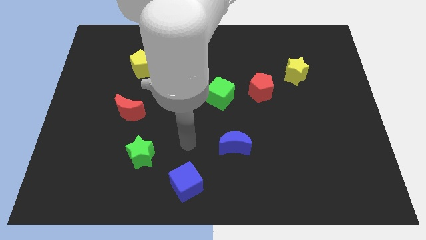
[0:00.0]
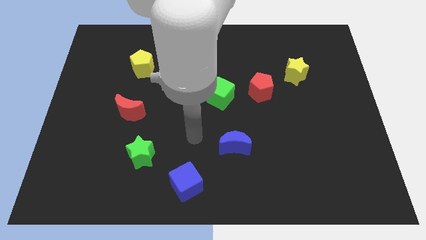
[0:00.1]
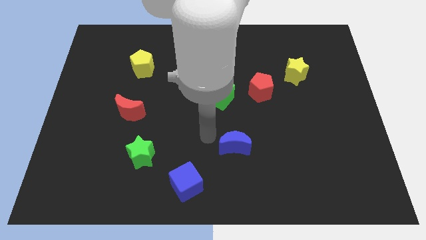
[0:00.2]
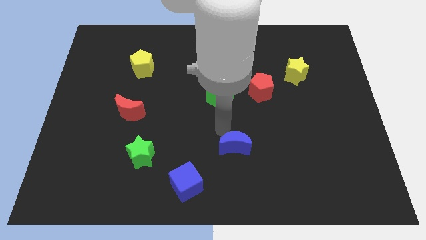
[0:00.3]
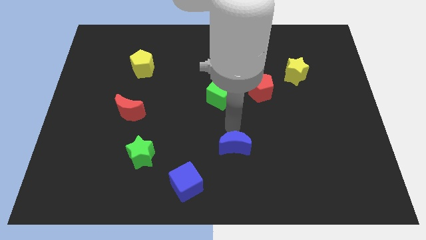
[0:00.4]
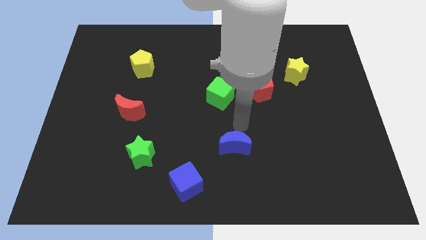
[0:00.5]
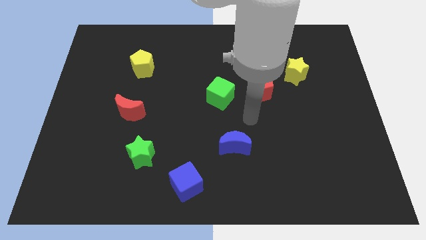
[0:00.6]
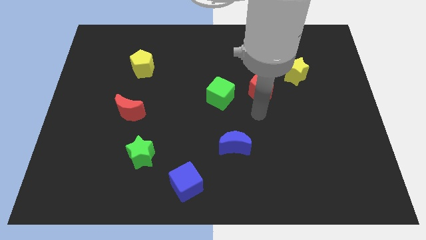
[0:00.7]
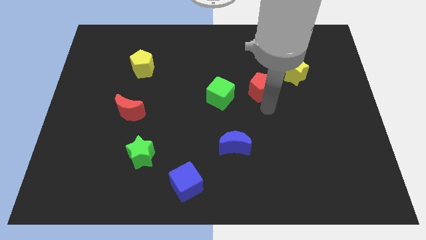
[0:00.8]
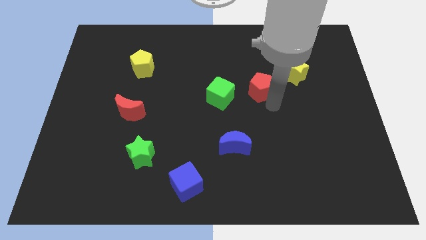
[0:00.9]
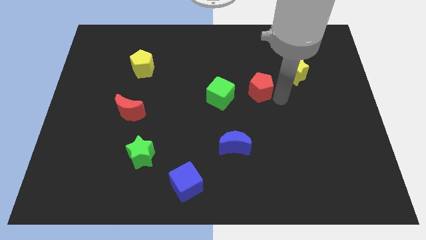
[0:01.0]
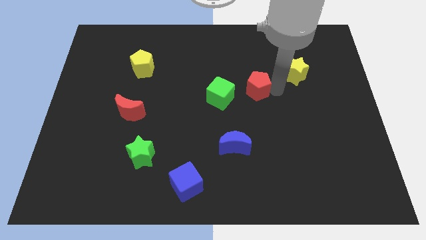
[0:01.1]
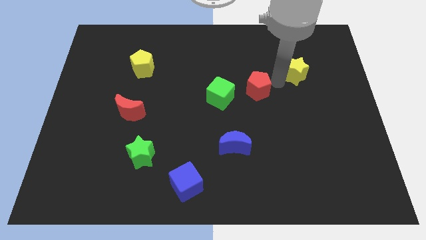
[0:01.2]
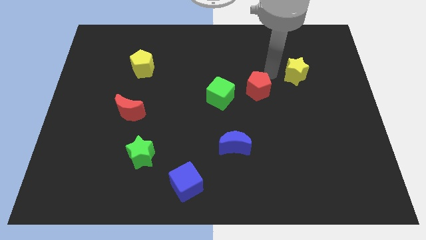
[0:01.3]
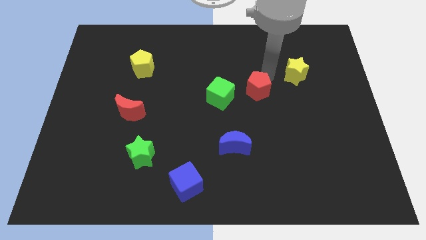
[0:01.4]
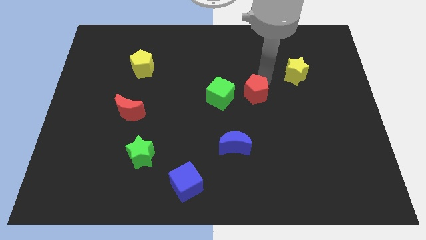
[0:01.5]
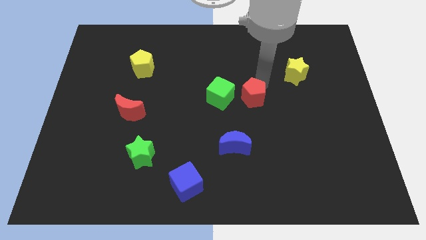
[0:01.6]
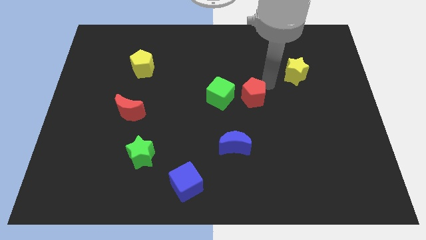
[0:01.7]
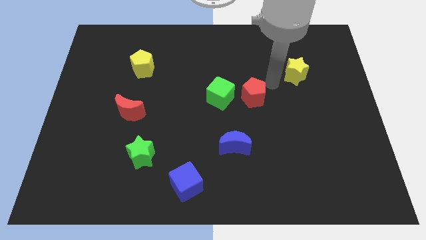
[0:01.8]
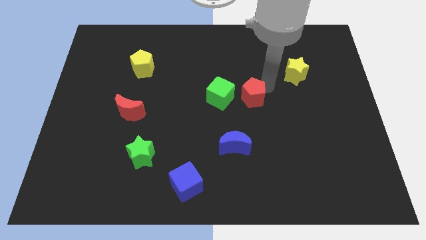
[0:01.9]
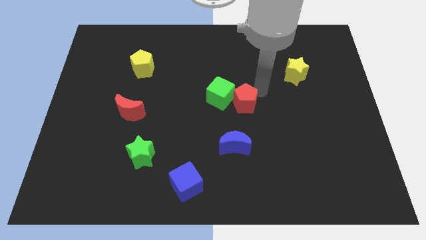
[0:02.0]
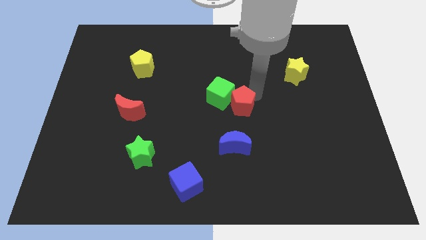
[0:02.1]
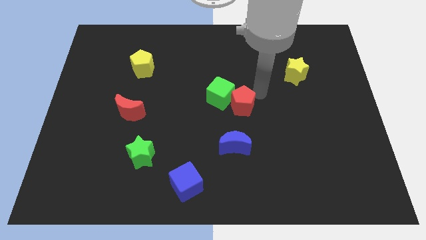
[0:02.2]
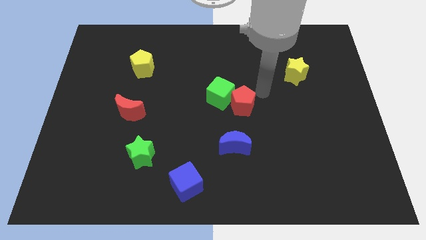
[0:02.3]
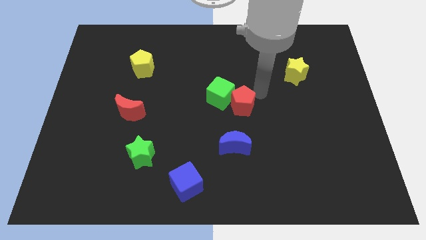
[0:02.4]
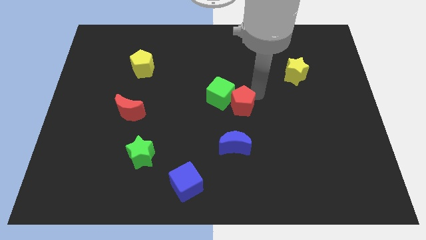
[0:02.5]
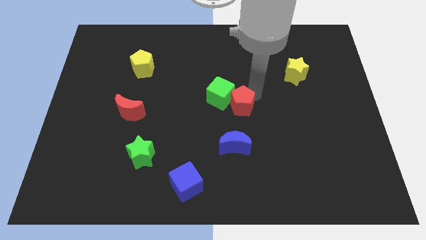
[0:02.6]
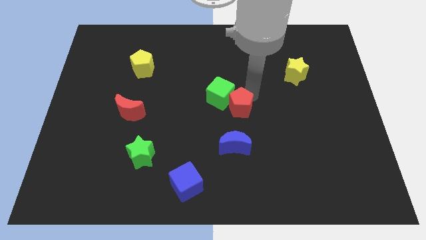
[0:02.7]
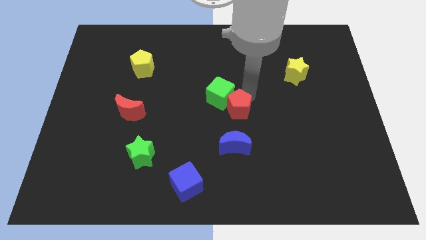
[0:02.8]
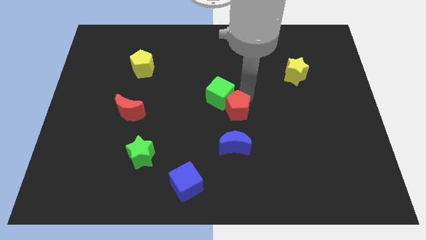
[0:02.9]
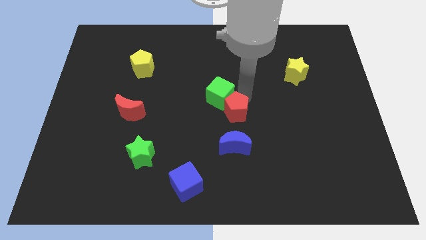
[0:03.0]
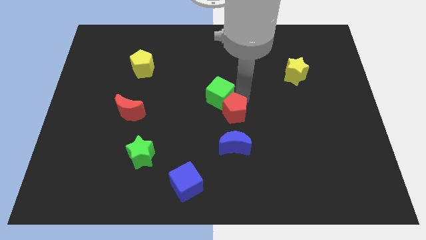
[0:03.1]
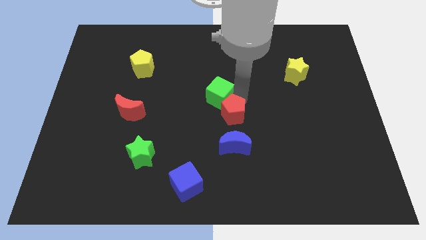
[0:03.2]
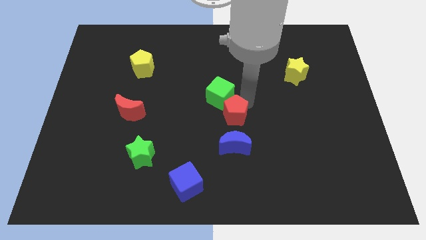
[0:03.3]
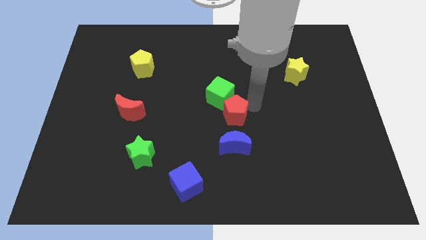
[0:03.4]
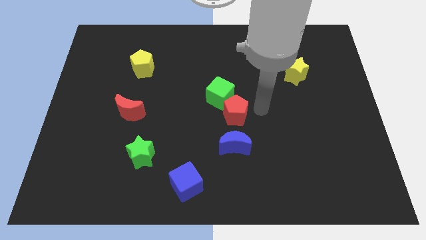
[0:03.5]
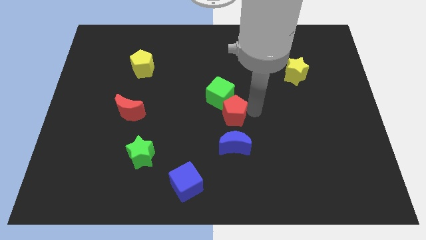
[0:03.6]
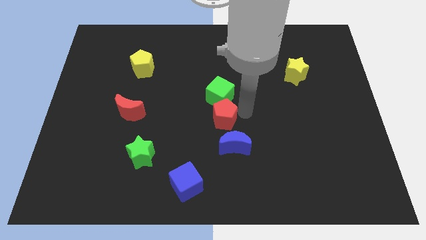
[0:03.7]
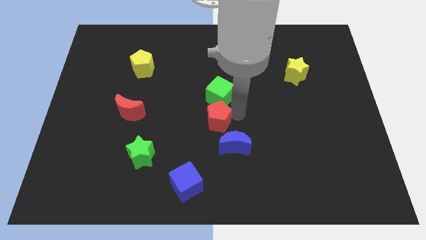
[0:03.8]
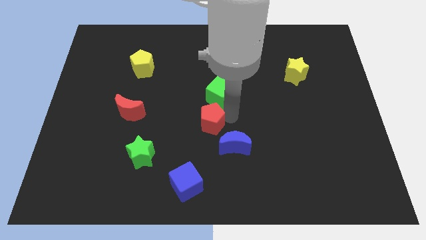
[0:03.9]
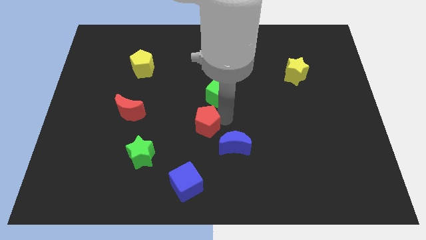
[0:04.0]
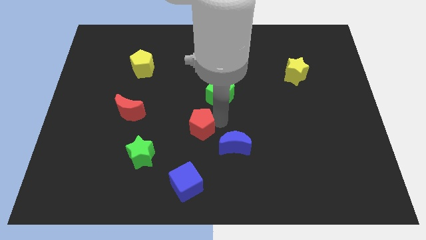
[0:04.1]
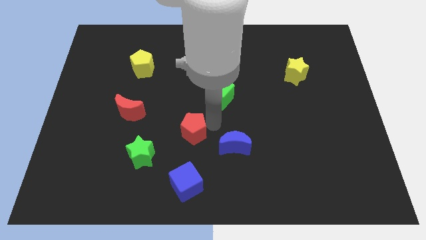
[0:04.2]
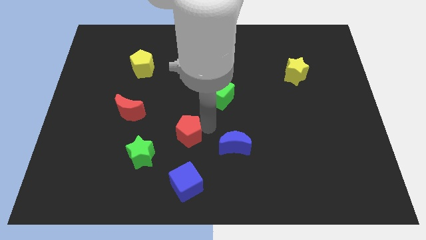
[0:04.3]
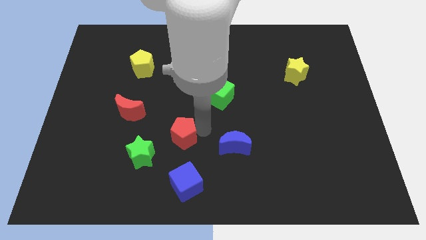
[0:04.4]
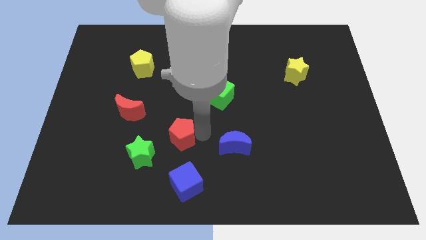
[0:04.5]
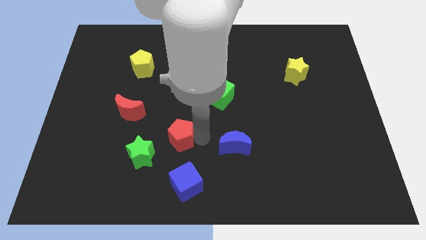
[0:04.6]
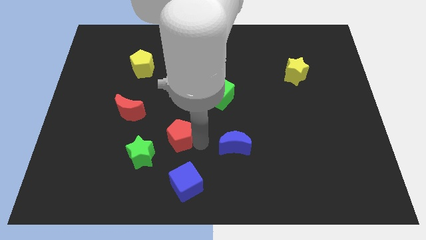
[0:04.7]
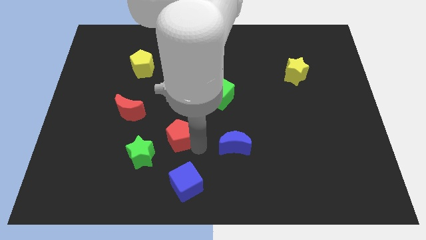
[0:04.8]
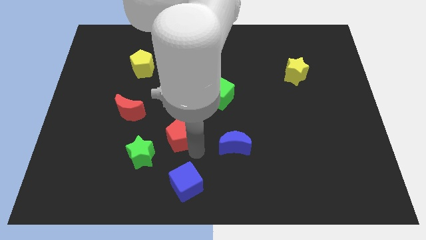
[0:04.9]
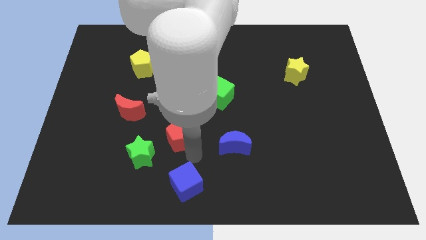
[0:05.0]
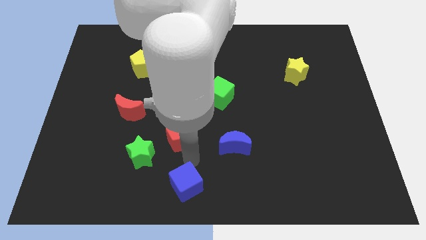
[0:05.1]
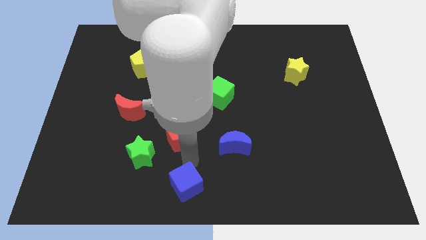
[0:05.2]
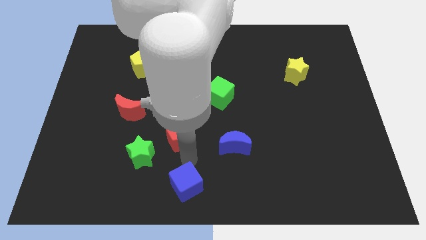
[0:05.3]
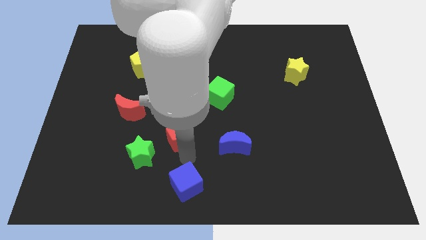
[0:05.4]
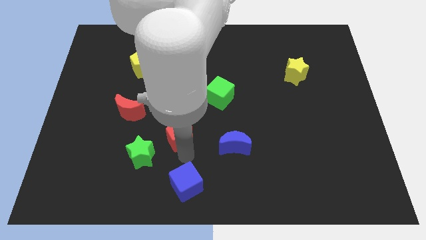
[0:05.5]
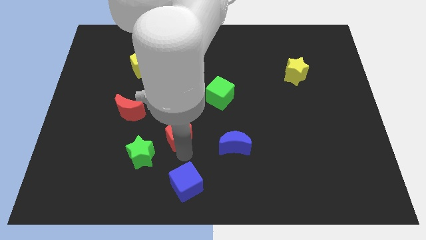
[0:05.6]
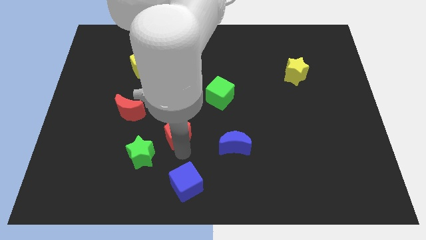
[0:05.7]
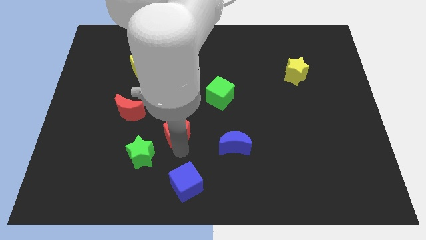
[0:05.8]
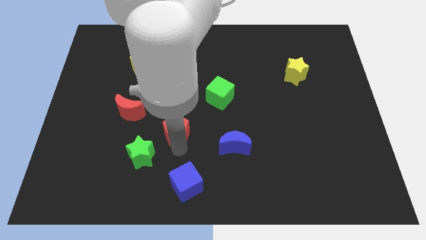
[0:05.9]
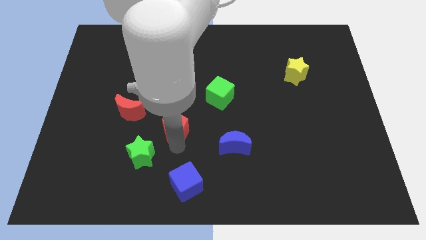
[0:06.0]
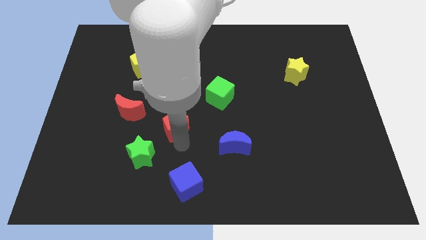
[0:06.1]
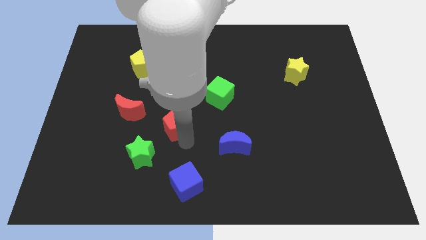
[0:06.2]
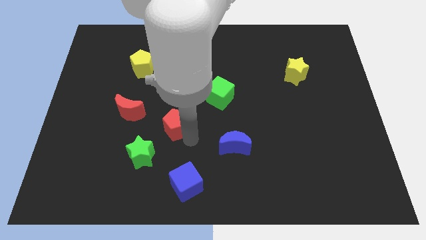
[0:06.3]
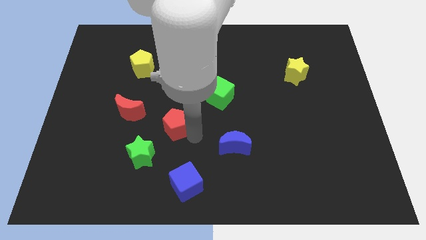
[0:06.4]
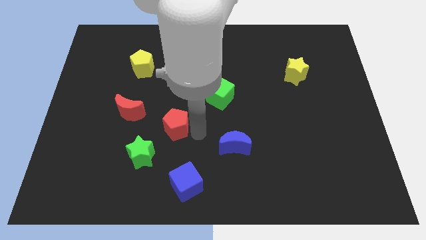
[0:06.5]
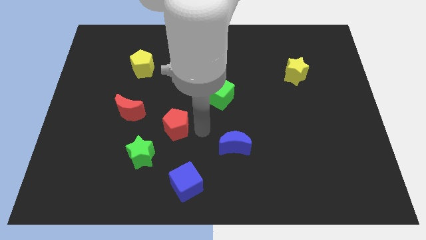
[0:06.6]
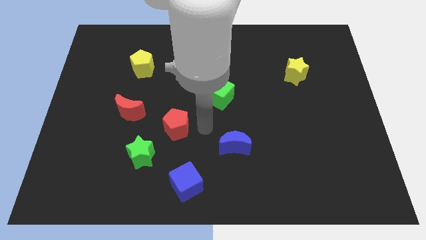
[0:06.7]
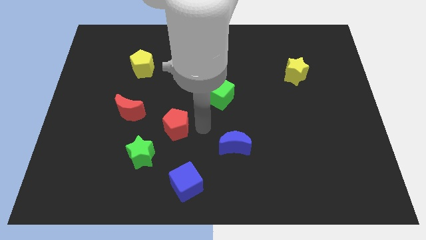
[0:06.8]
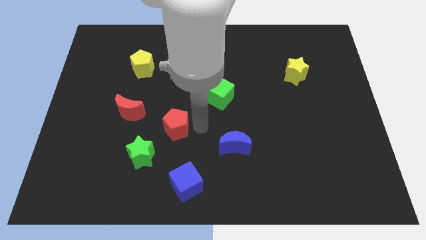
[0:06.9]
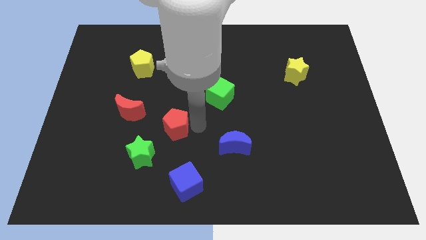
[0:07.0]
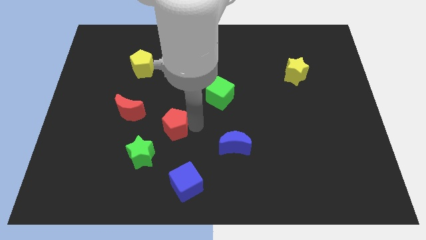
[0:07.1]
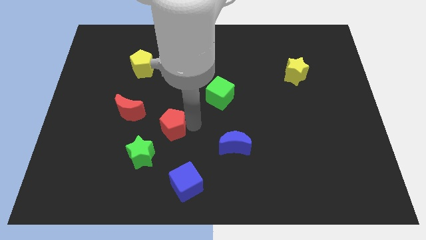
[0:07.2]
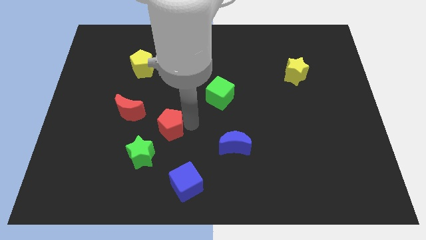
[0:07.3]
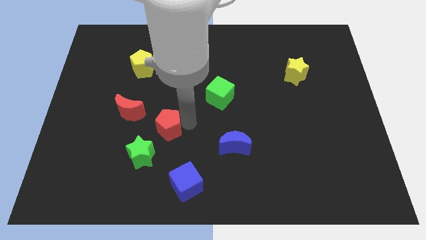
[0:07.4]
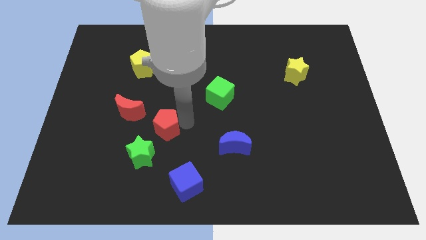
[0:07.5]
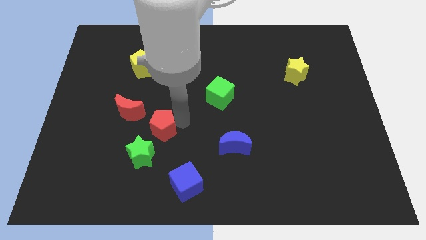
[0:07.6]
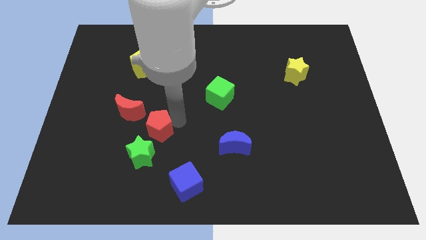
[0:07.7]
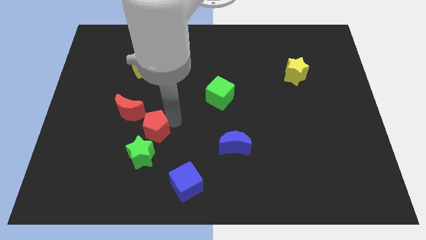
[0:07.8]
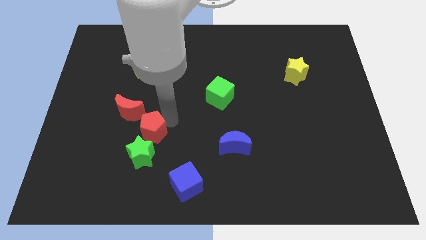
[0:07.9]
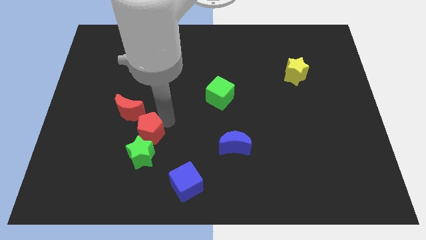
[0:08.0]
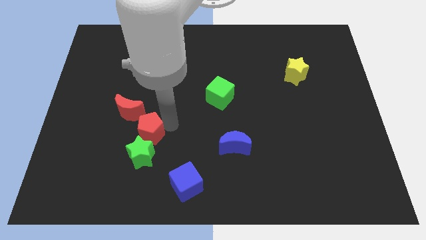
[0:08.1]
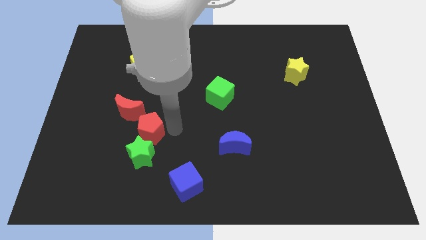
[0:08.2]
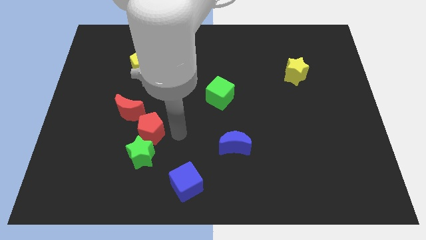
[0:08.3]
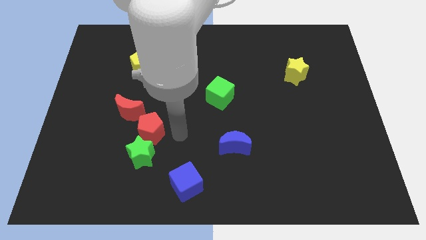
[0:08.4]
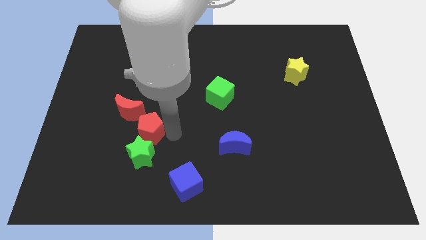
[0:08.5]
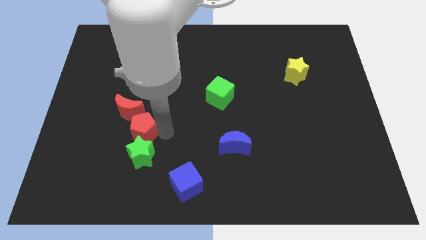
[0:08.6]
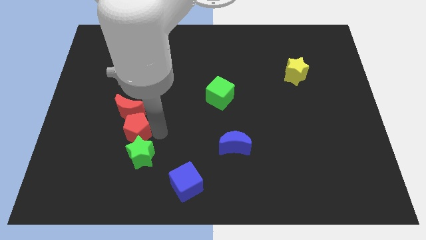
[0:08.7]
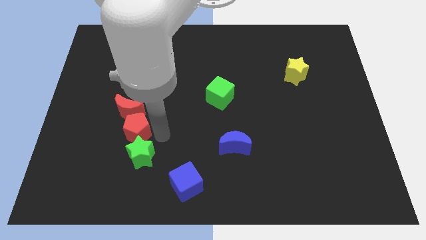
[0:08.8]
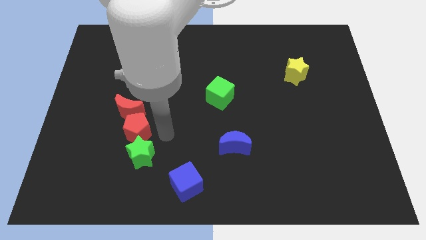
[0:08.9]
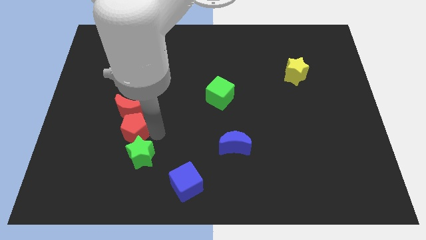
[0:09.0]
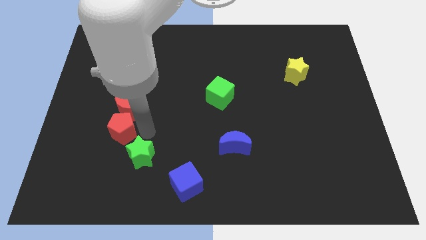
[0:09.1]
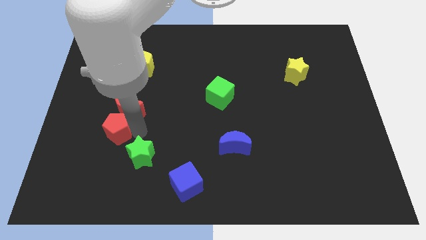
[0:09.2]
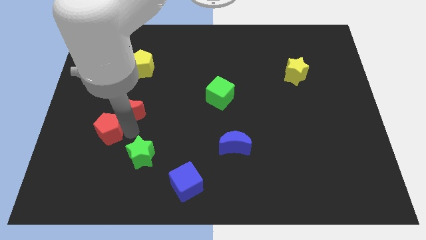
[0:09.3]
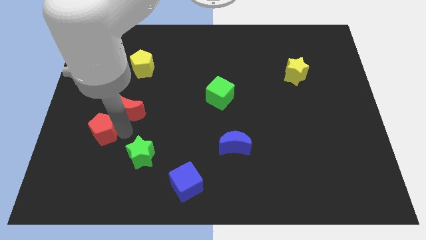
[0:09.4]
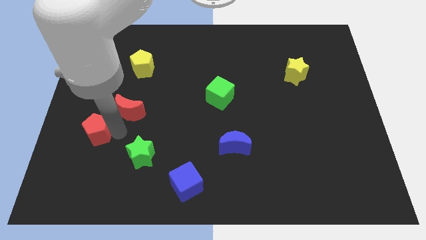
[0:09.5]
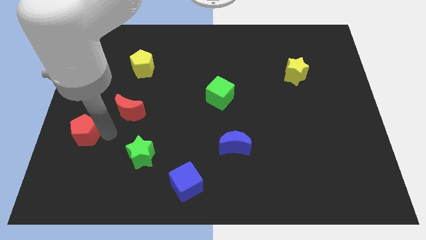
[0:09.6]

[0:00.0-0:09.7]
put the red pentagon to the center left
